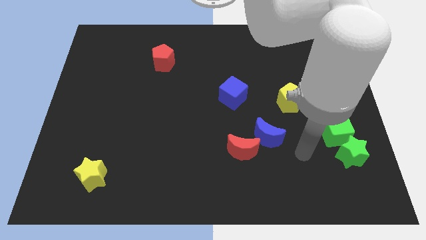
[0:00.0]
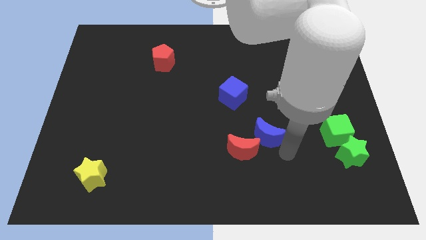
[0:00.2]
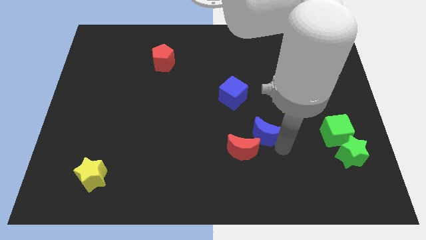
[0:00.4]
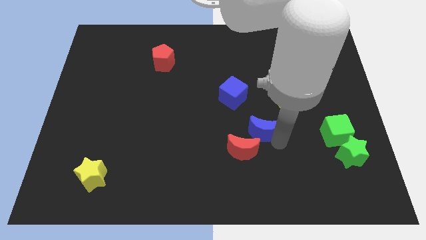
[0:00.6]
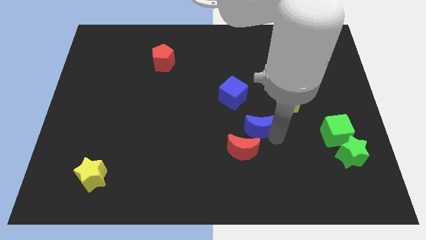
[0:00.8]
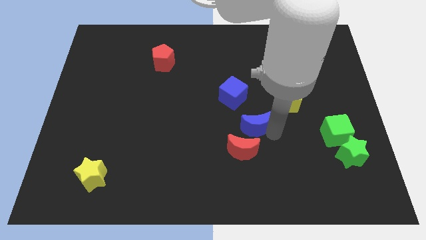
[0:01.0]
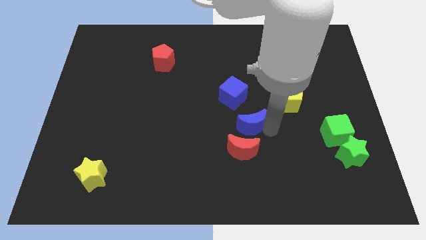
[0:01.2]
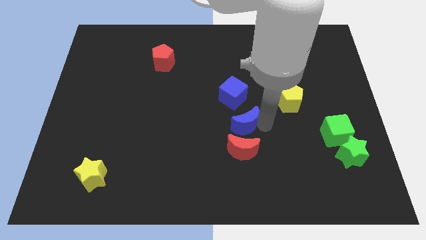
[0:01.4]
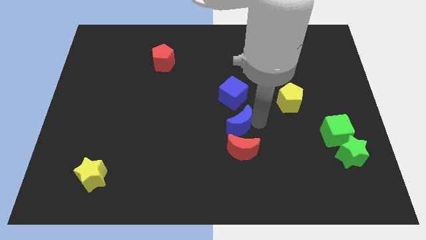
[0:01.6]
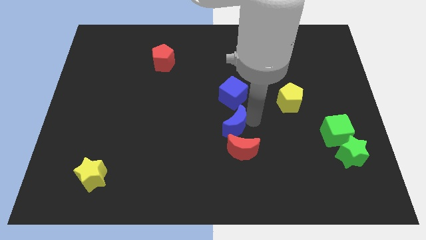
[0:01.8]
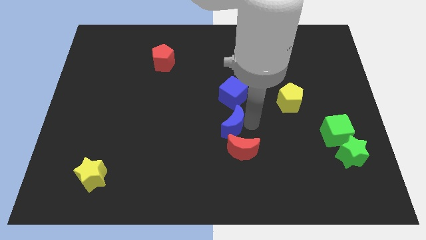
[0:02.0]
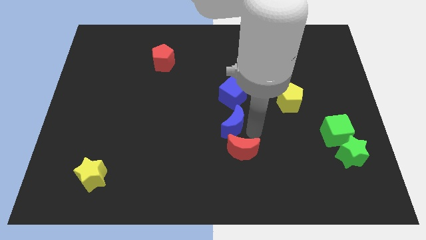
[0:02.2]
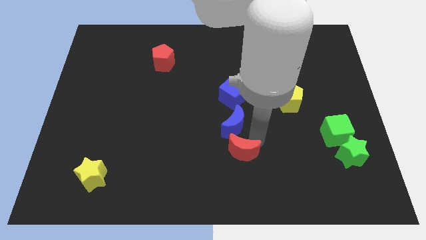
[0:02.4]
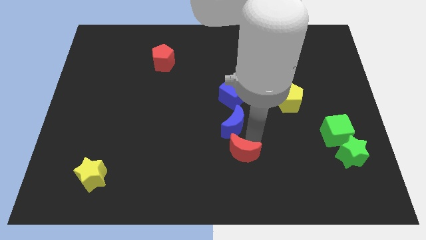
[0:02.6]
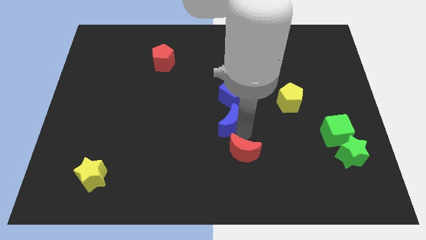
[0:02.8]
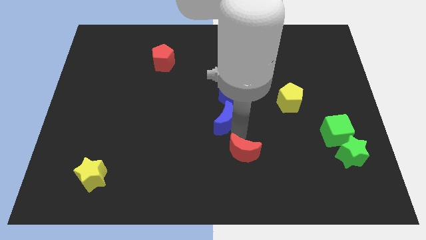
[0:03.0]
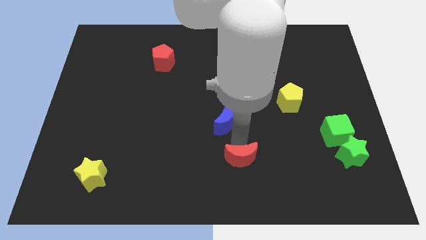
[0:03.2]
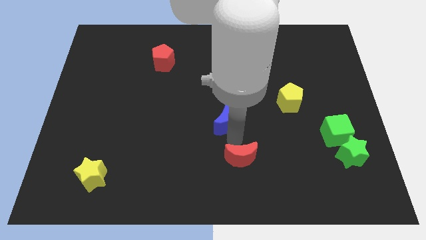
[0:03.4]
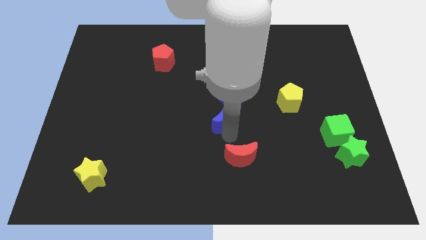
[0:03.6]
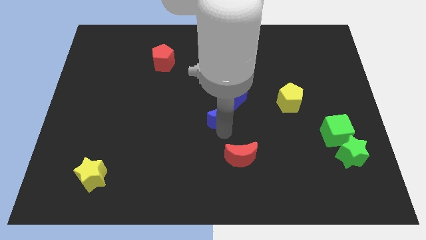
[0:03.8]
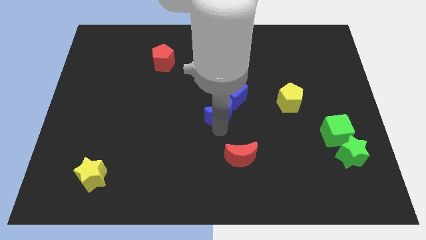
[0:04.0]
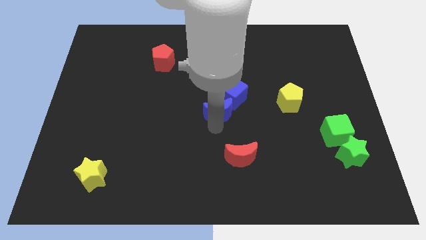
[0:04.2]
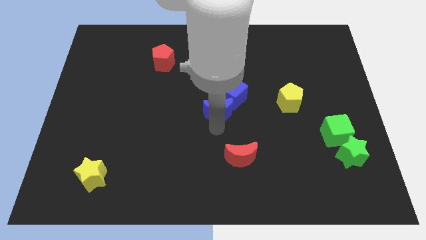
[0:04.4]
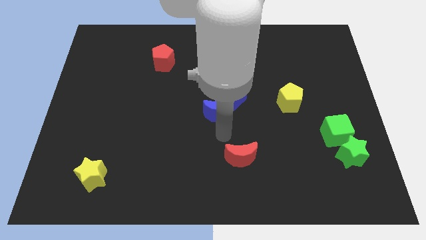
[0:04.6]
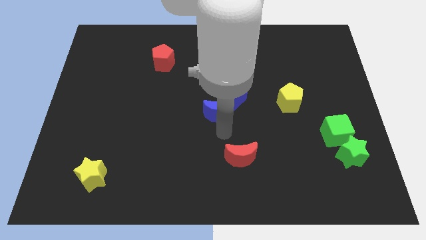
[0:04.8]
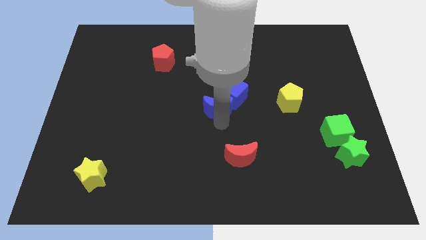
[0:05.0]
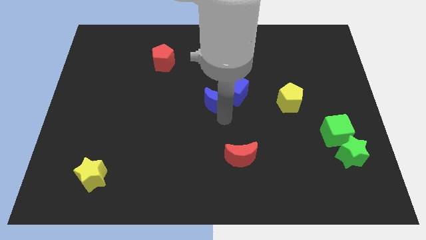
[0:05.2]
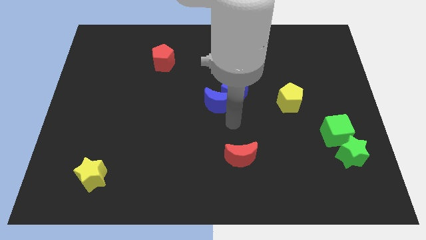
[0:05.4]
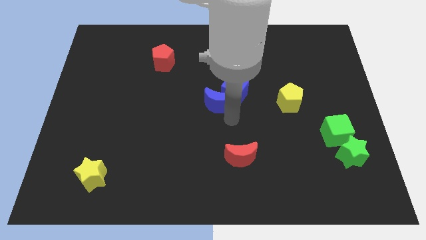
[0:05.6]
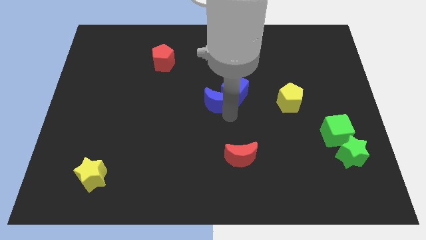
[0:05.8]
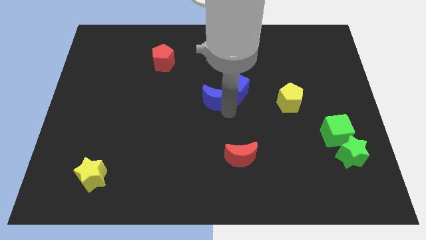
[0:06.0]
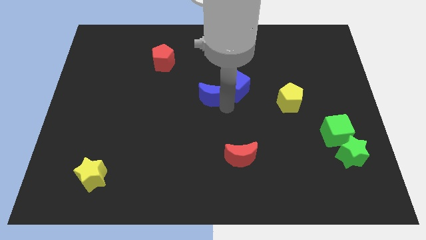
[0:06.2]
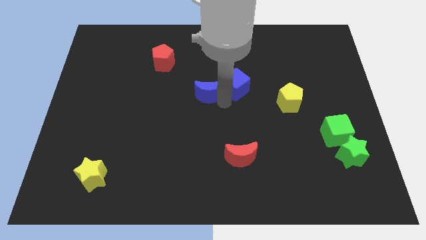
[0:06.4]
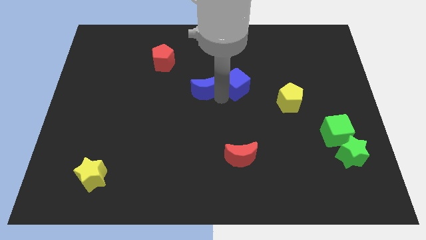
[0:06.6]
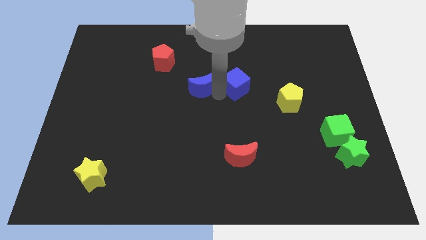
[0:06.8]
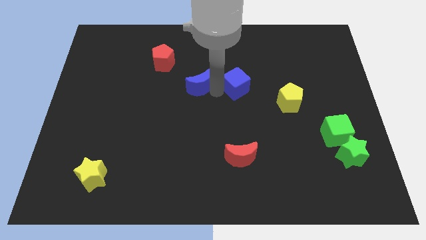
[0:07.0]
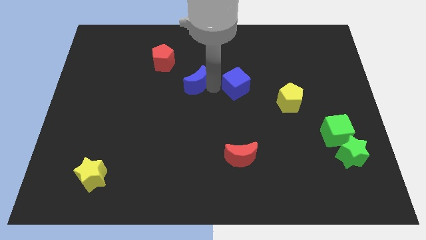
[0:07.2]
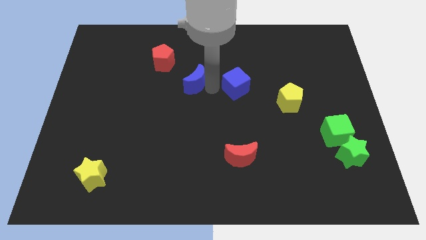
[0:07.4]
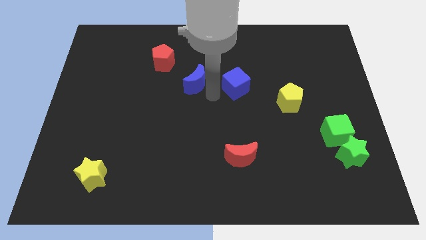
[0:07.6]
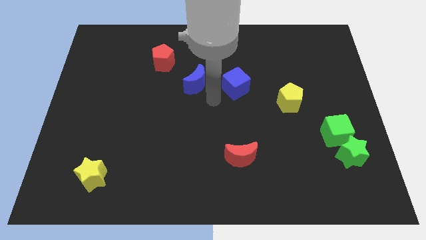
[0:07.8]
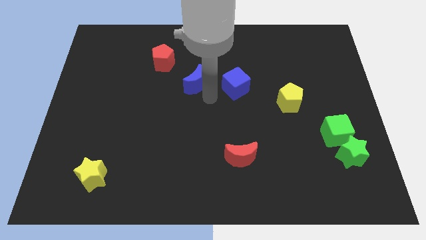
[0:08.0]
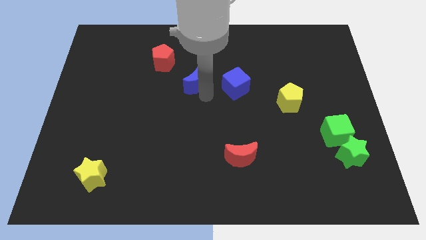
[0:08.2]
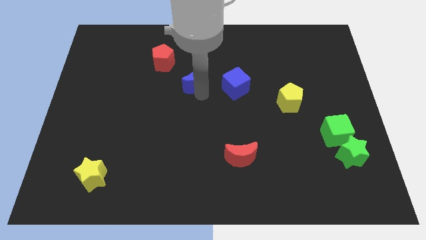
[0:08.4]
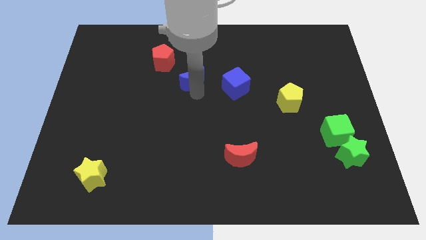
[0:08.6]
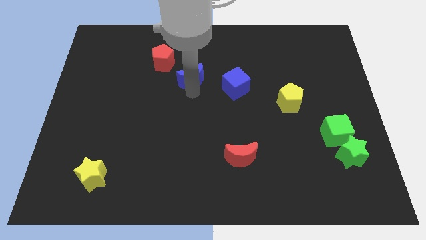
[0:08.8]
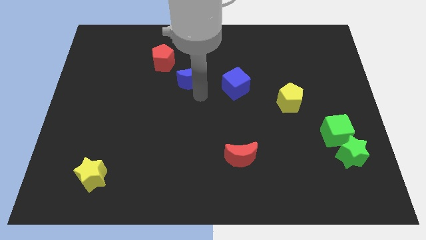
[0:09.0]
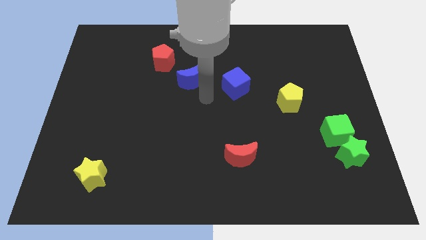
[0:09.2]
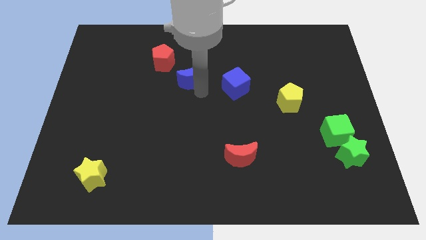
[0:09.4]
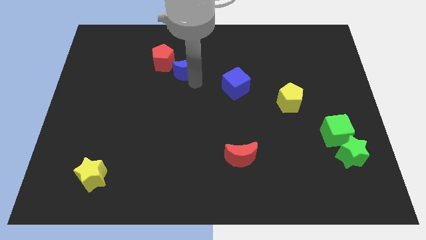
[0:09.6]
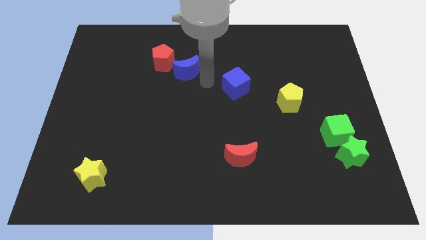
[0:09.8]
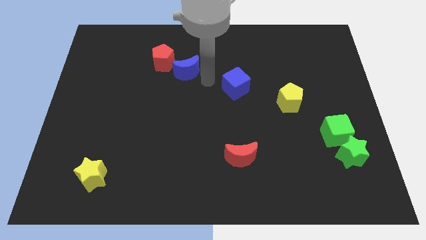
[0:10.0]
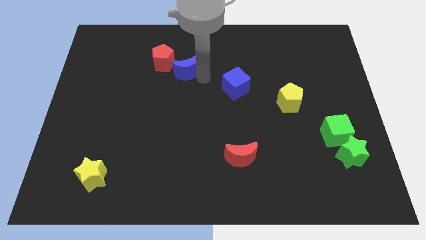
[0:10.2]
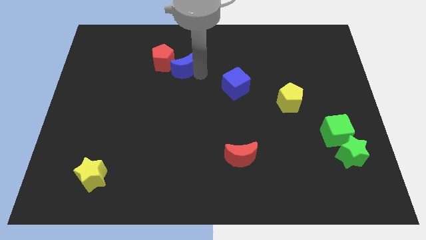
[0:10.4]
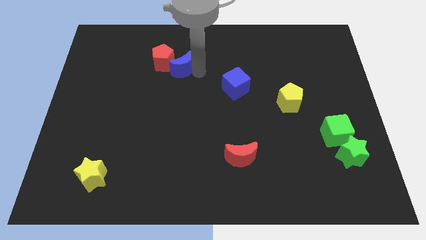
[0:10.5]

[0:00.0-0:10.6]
slide the blue moon towards the red pentagon

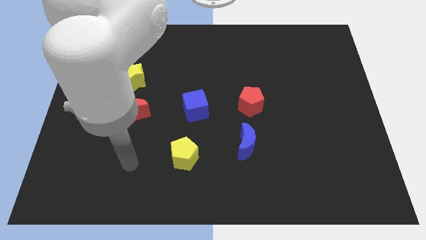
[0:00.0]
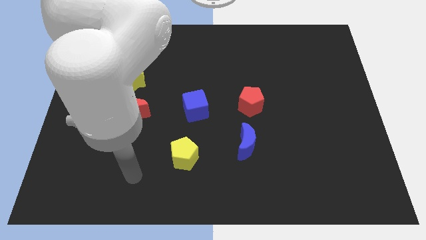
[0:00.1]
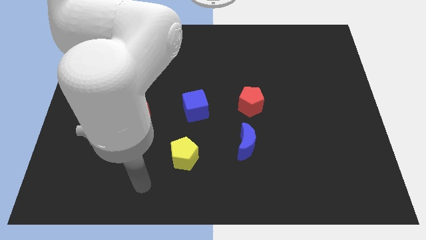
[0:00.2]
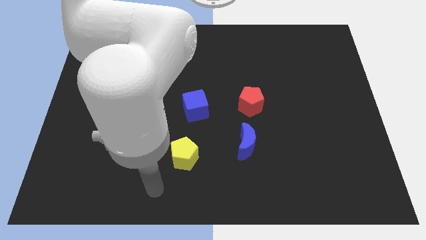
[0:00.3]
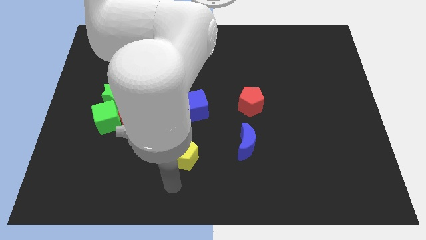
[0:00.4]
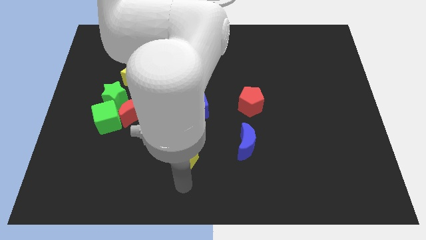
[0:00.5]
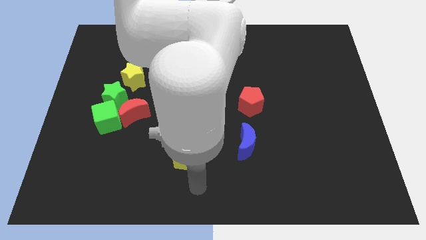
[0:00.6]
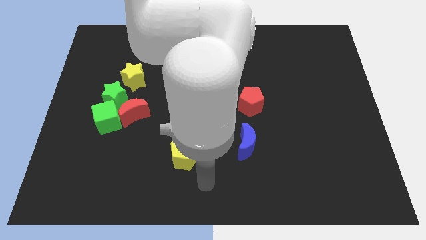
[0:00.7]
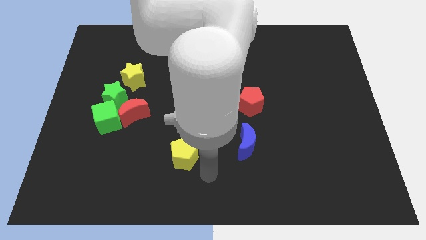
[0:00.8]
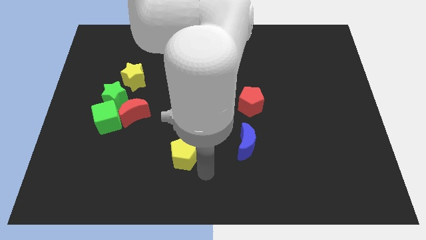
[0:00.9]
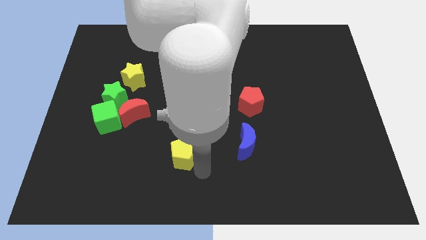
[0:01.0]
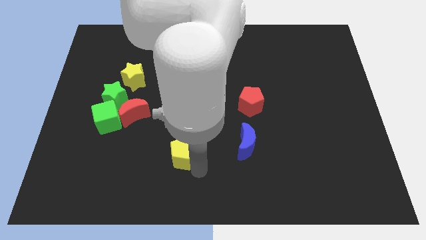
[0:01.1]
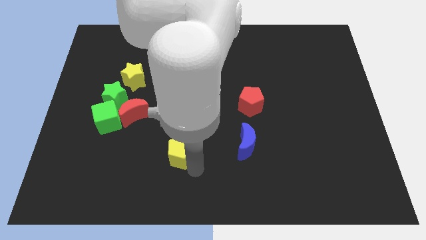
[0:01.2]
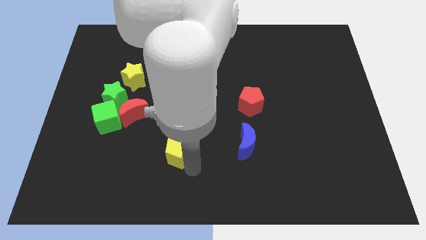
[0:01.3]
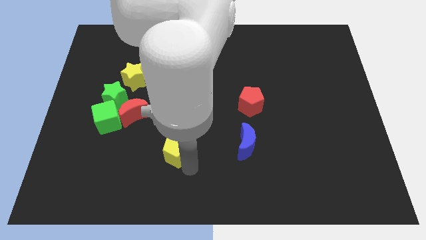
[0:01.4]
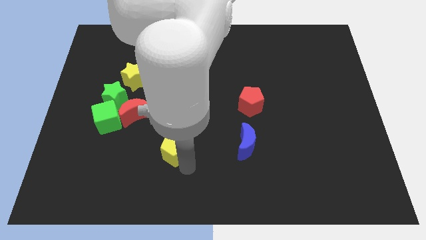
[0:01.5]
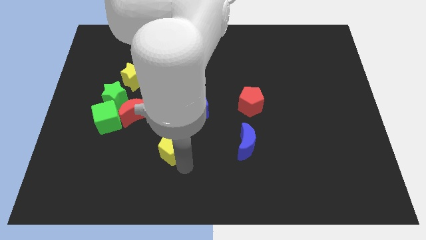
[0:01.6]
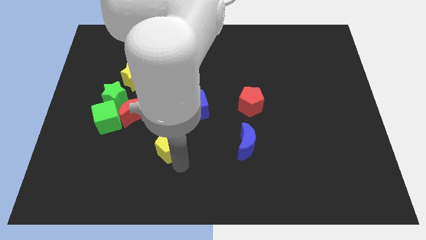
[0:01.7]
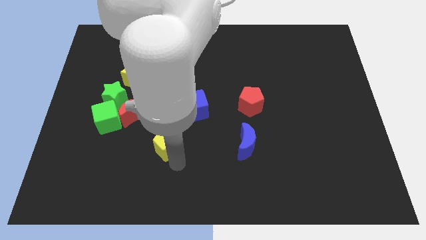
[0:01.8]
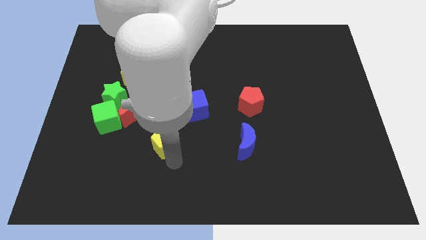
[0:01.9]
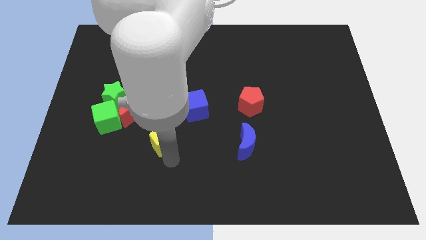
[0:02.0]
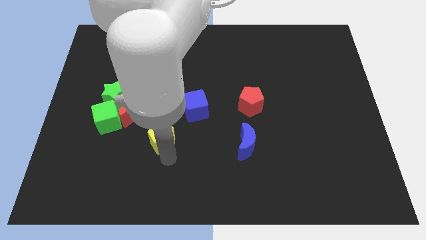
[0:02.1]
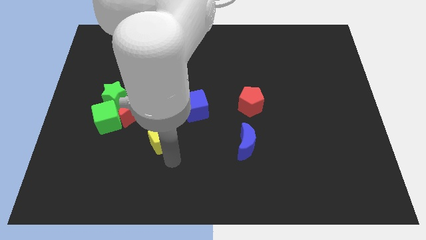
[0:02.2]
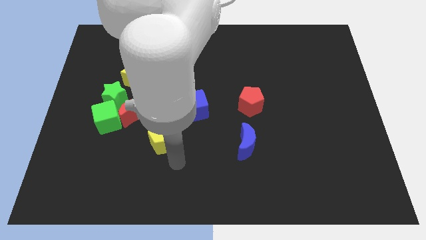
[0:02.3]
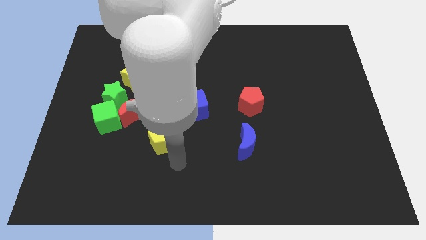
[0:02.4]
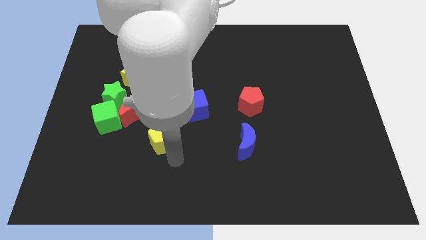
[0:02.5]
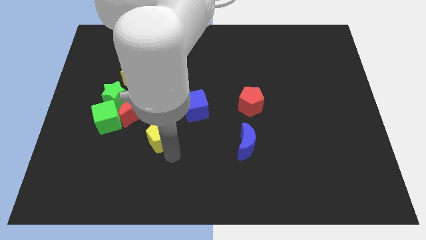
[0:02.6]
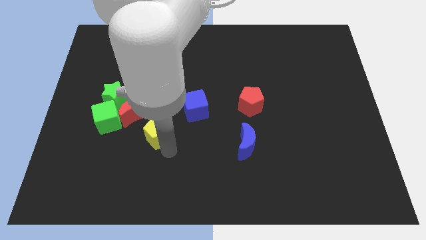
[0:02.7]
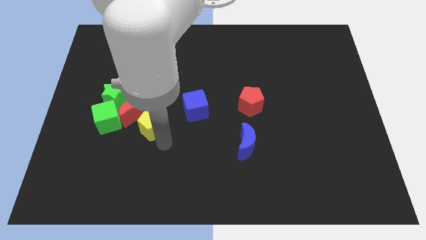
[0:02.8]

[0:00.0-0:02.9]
slide the yellow pentagon close to the red moon
